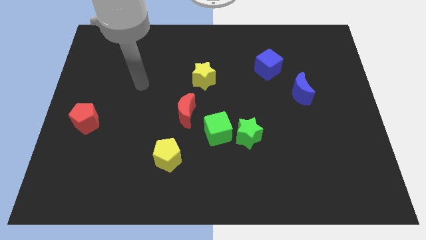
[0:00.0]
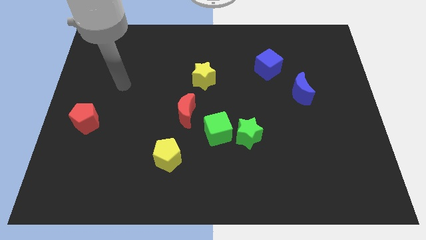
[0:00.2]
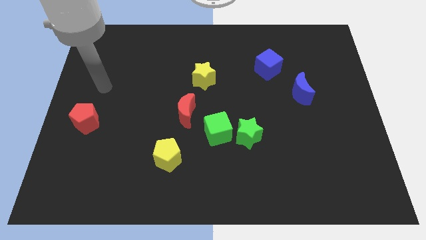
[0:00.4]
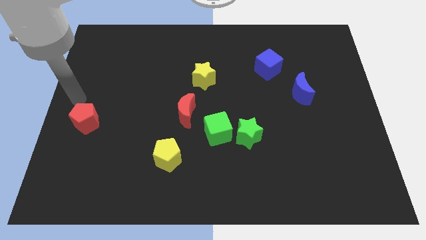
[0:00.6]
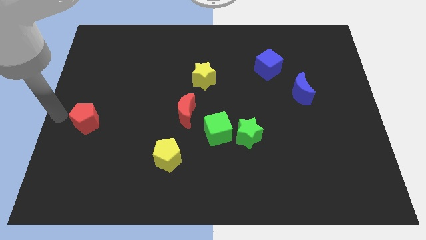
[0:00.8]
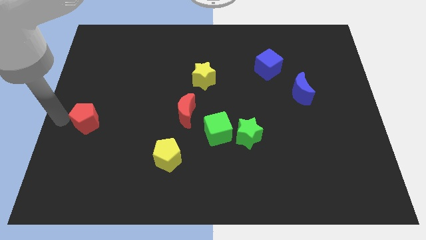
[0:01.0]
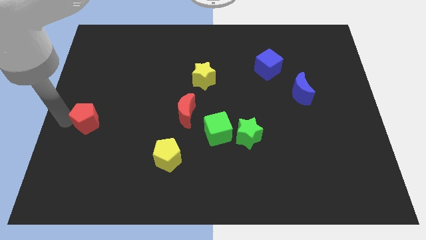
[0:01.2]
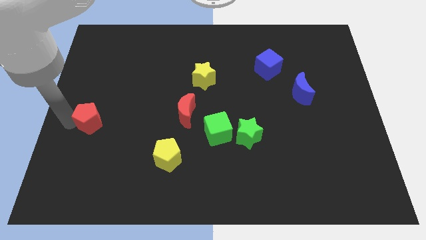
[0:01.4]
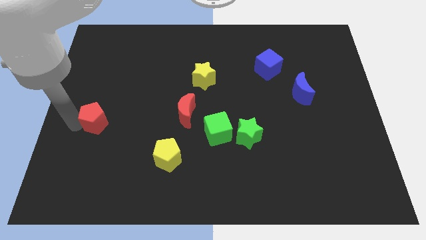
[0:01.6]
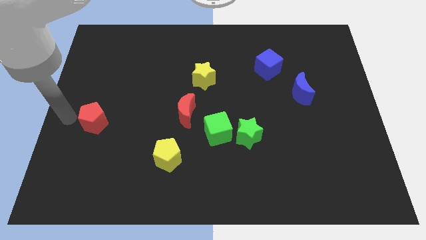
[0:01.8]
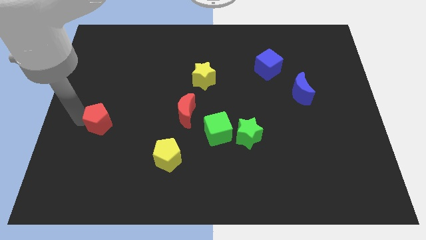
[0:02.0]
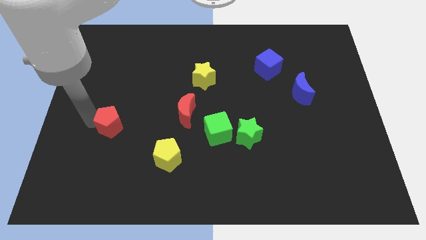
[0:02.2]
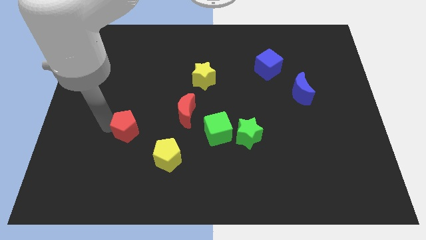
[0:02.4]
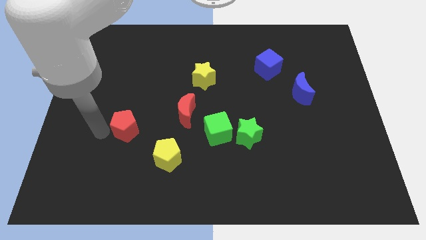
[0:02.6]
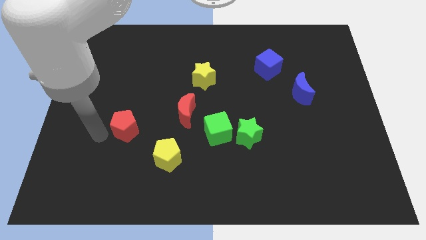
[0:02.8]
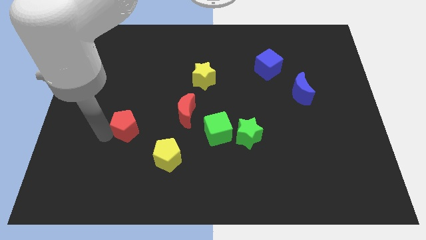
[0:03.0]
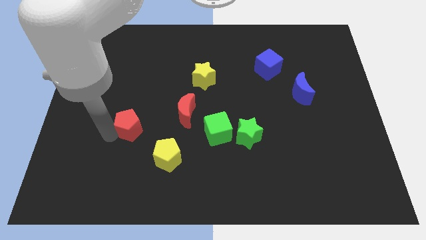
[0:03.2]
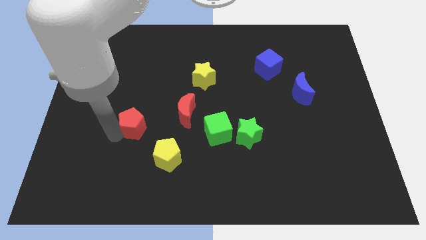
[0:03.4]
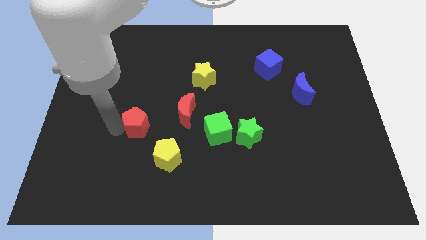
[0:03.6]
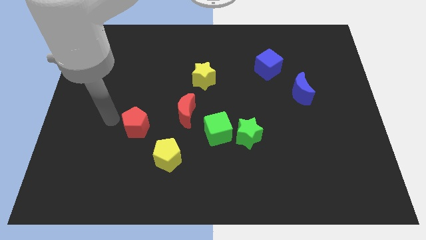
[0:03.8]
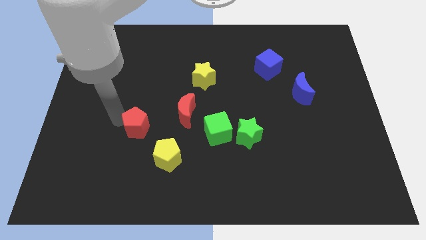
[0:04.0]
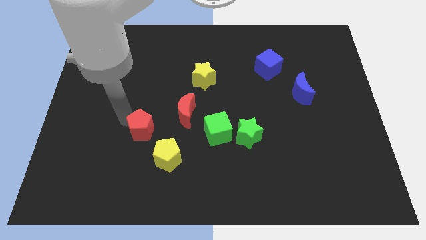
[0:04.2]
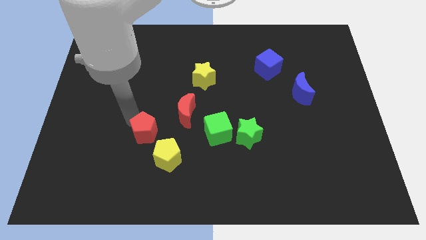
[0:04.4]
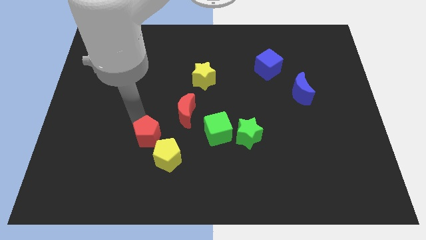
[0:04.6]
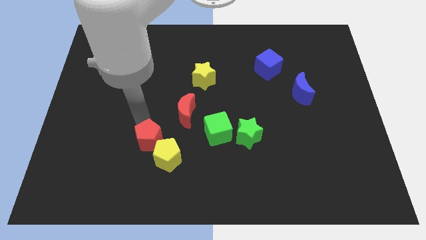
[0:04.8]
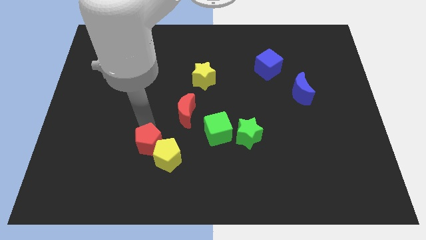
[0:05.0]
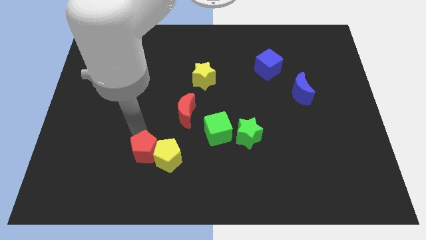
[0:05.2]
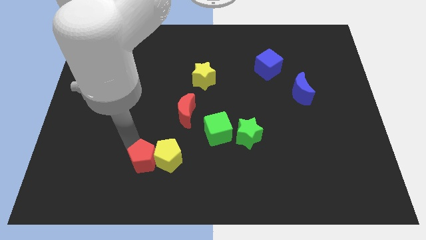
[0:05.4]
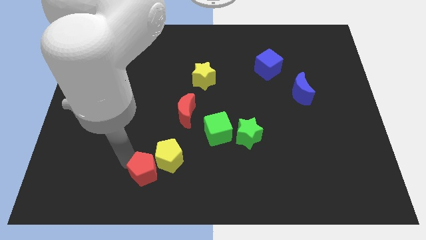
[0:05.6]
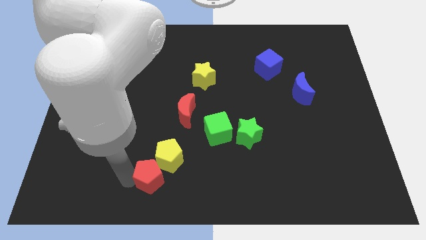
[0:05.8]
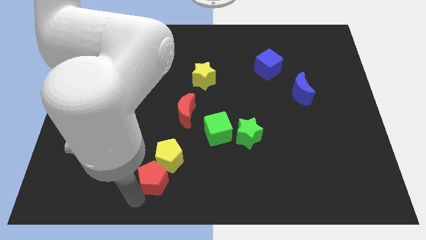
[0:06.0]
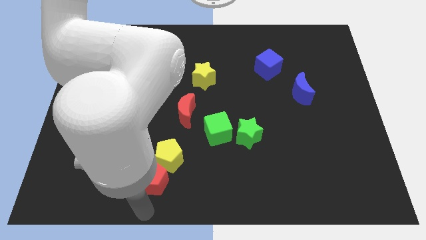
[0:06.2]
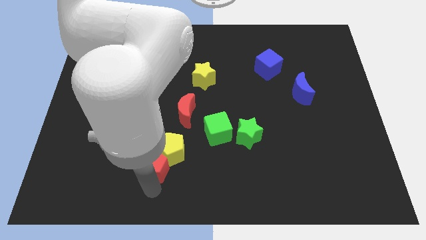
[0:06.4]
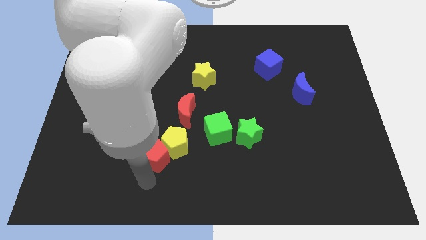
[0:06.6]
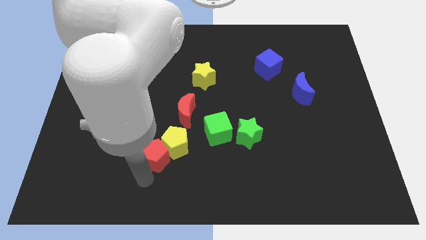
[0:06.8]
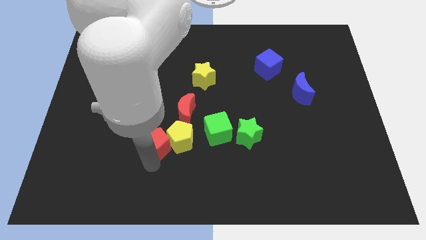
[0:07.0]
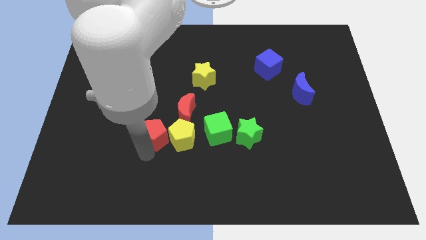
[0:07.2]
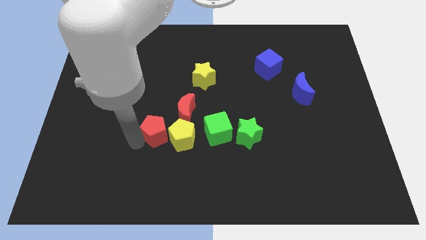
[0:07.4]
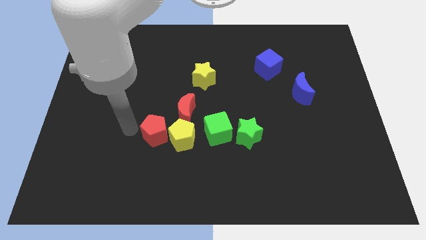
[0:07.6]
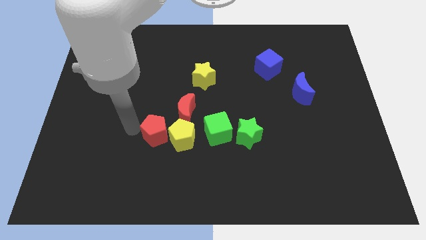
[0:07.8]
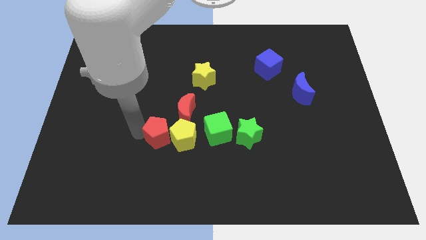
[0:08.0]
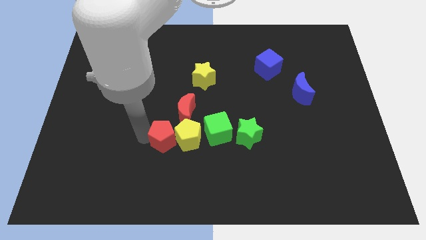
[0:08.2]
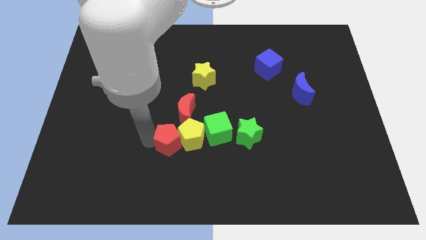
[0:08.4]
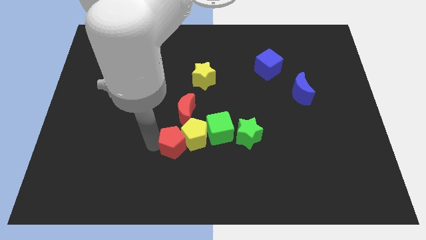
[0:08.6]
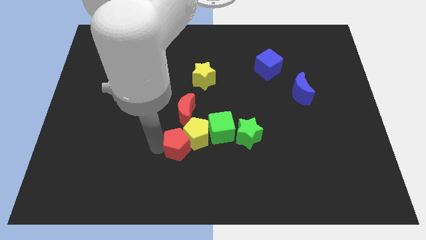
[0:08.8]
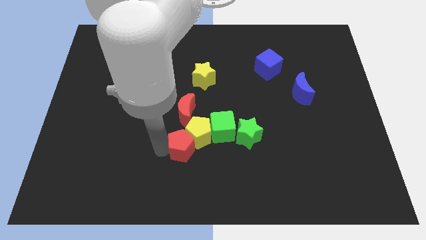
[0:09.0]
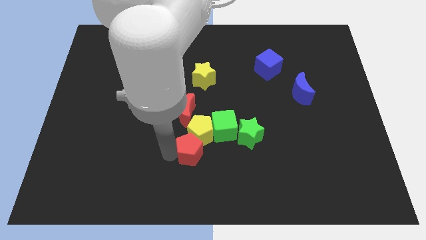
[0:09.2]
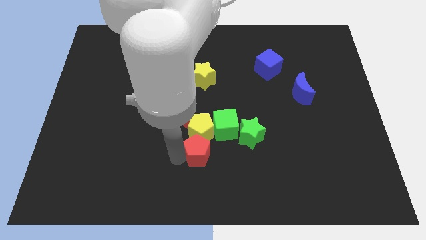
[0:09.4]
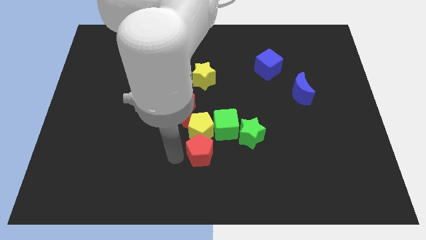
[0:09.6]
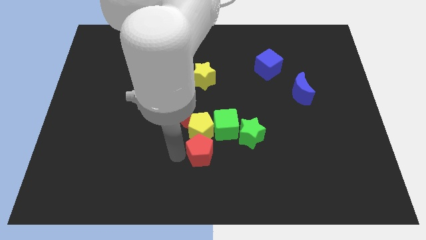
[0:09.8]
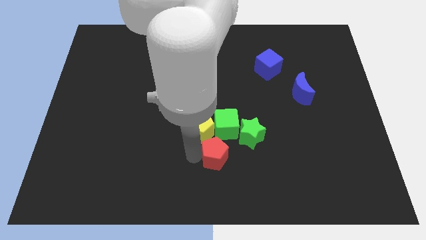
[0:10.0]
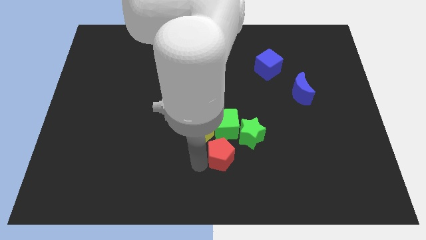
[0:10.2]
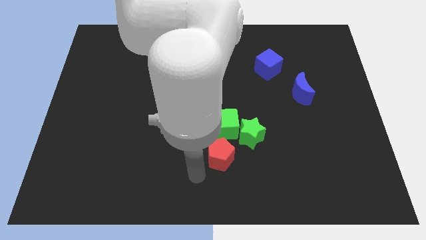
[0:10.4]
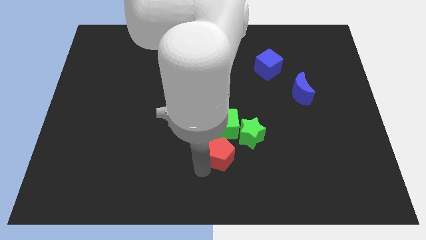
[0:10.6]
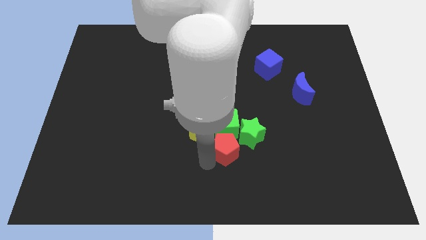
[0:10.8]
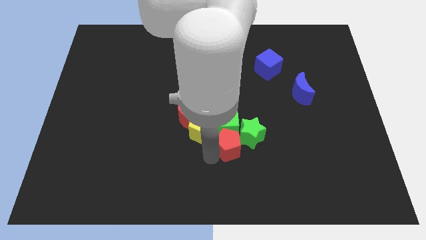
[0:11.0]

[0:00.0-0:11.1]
move the red pentagon next to the green star

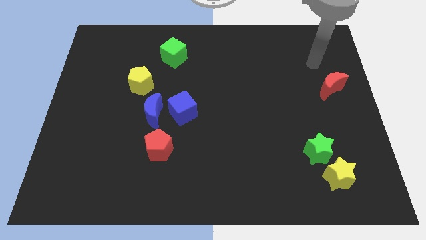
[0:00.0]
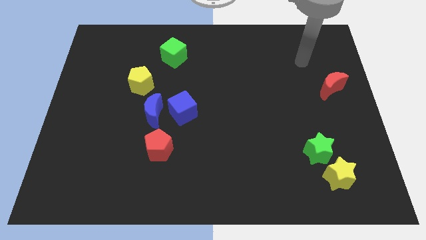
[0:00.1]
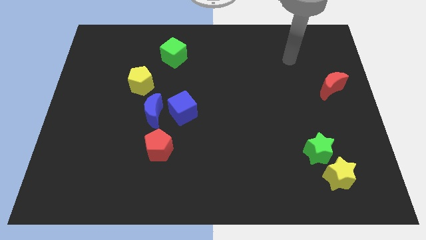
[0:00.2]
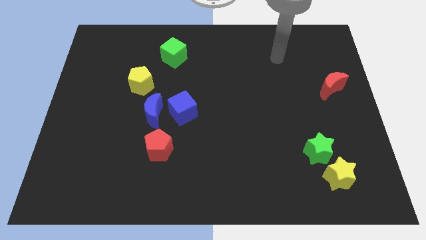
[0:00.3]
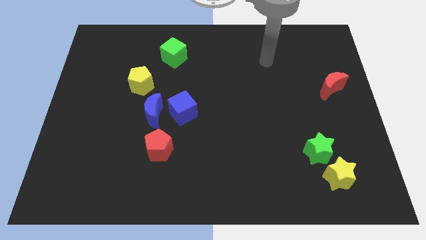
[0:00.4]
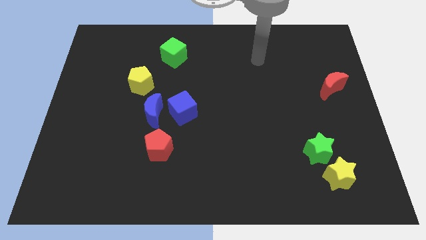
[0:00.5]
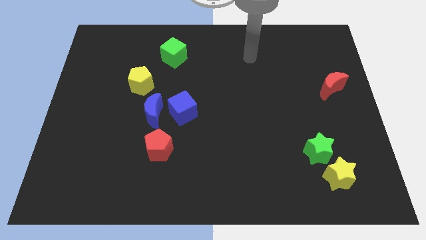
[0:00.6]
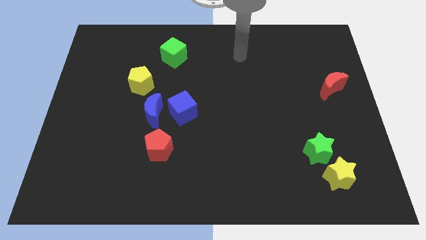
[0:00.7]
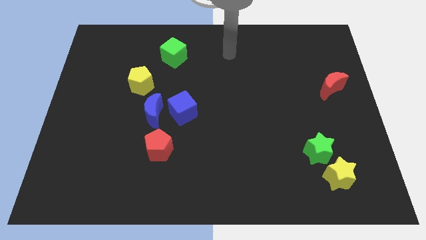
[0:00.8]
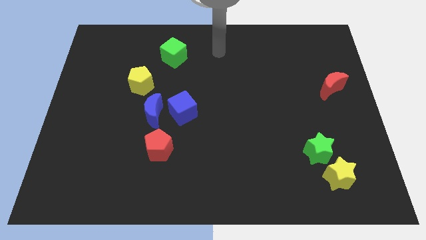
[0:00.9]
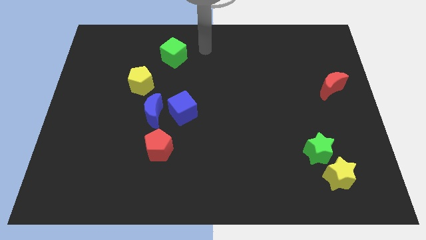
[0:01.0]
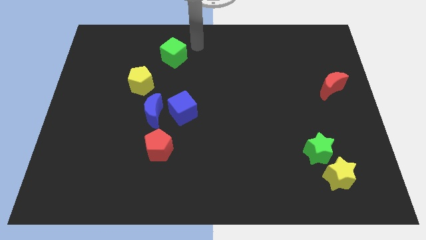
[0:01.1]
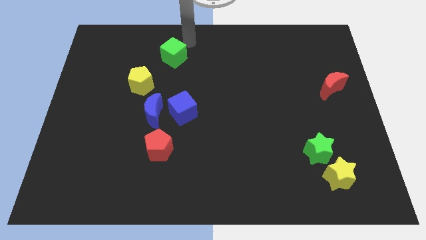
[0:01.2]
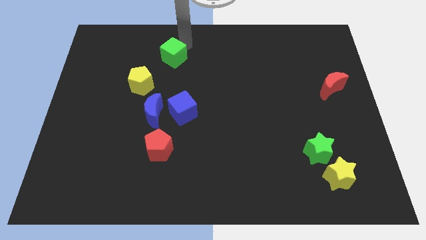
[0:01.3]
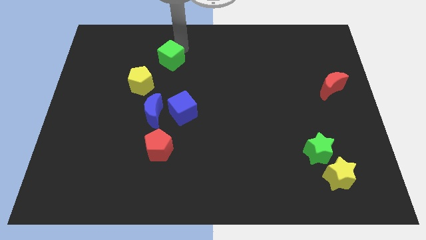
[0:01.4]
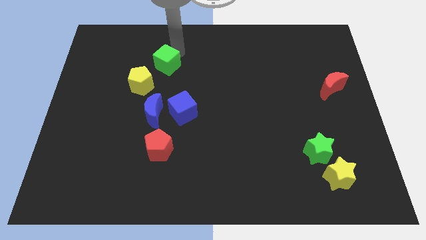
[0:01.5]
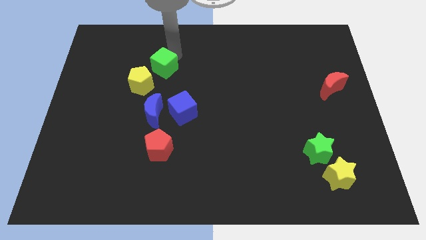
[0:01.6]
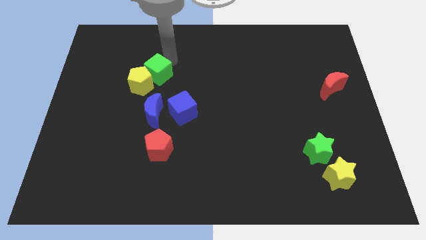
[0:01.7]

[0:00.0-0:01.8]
move the green cube to the yellow pentagon
